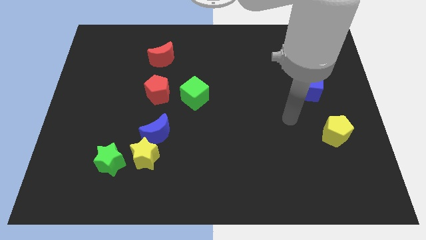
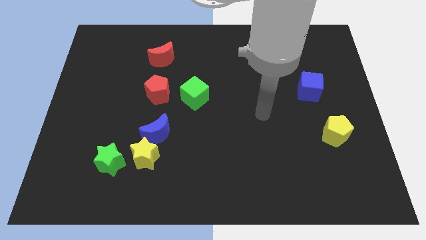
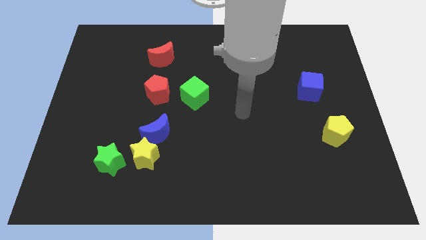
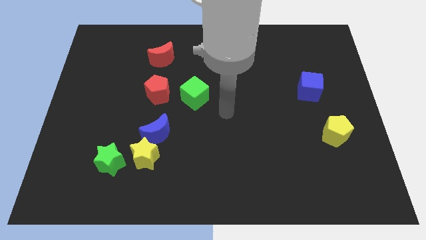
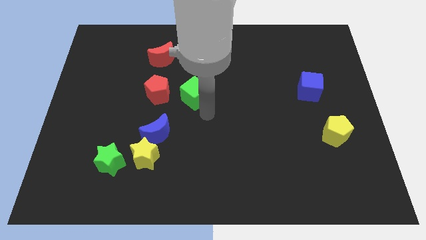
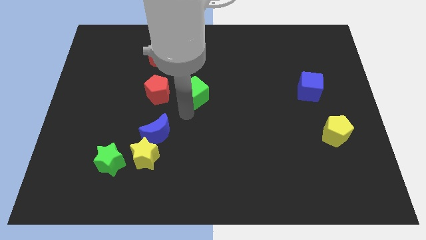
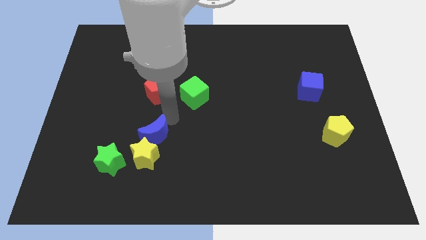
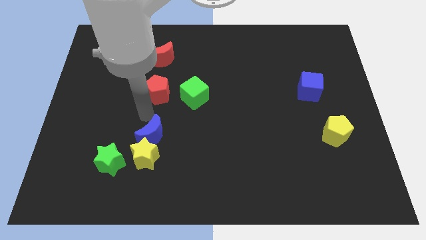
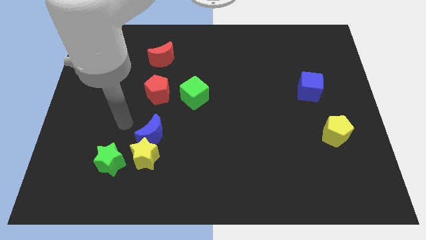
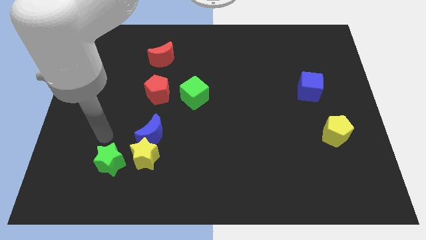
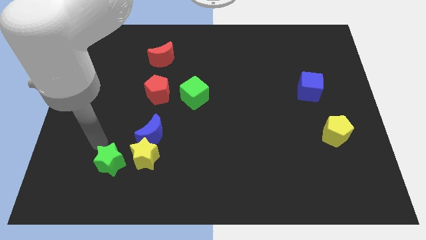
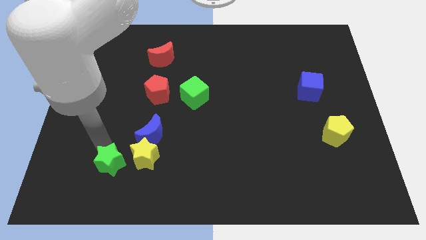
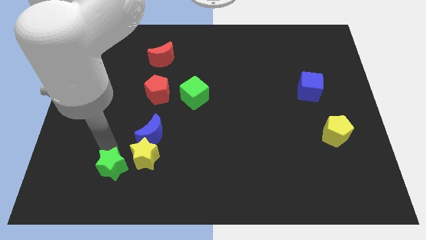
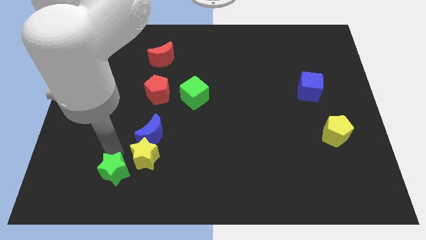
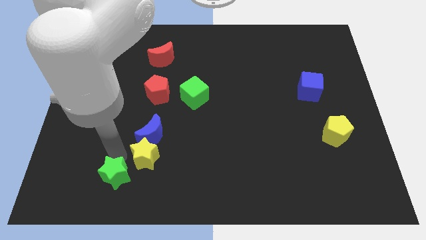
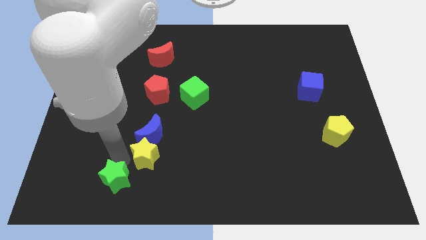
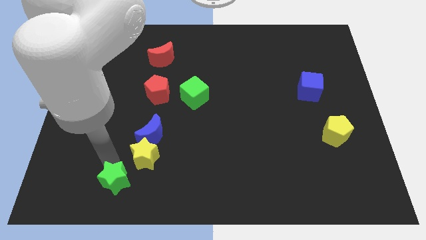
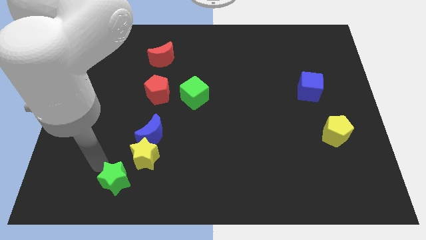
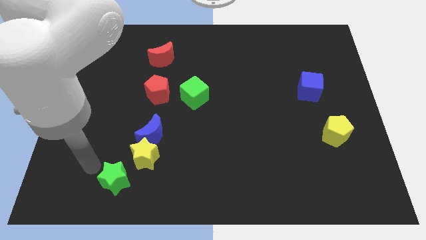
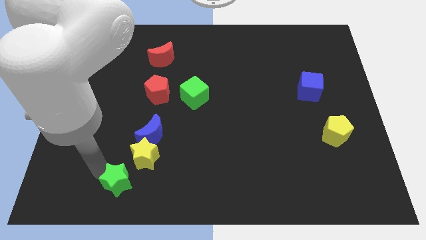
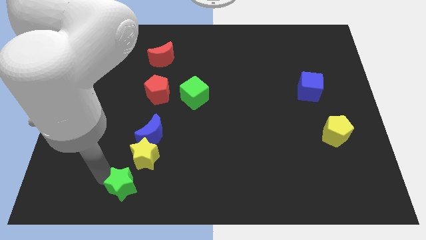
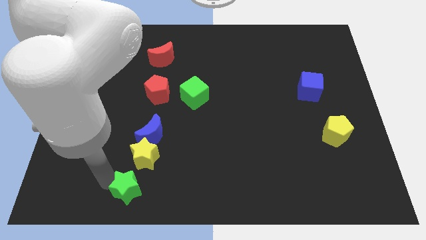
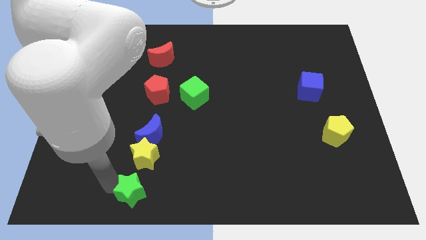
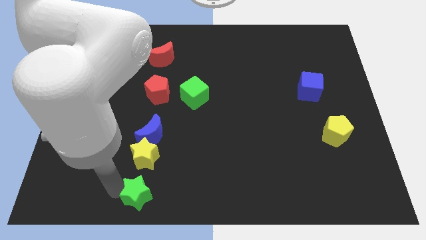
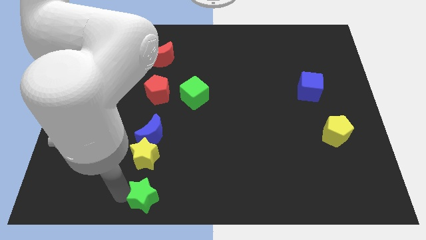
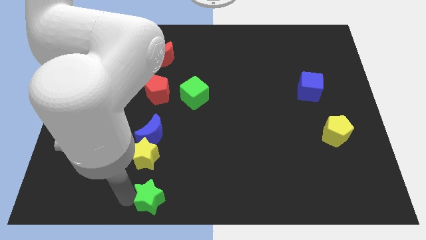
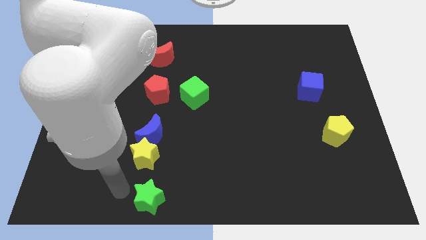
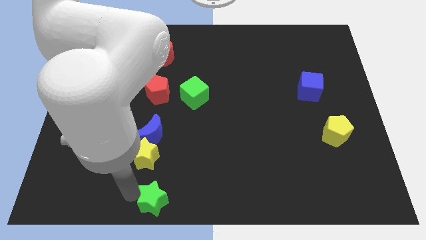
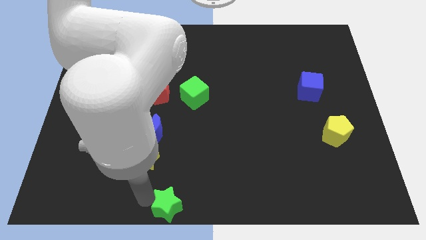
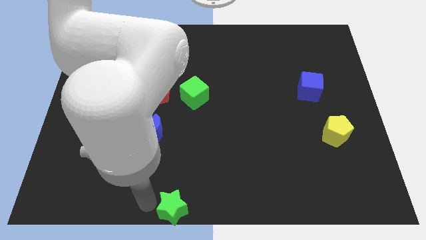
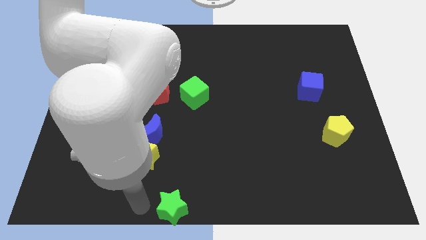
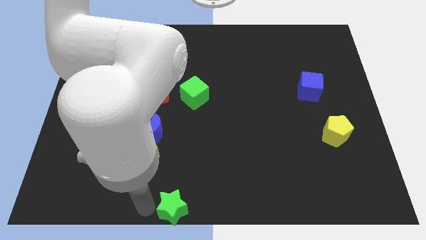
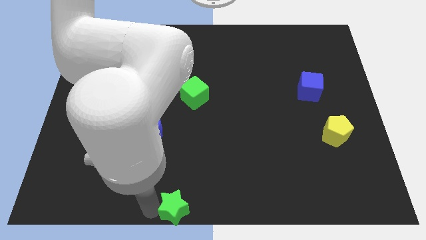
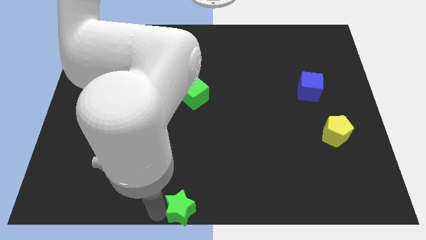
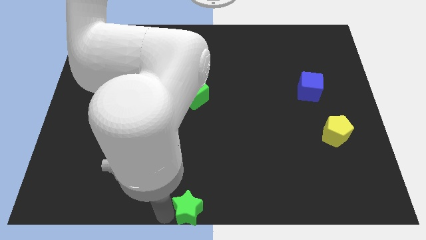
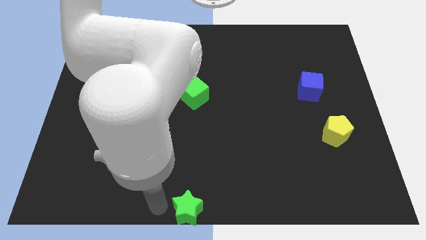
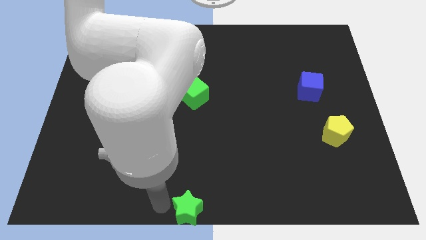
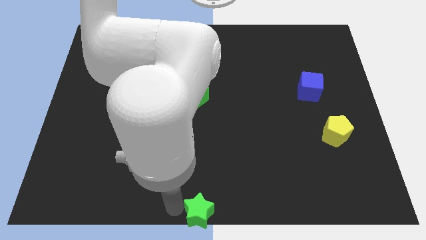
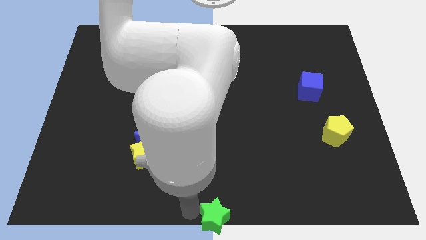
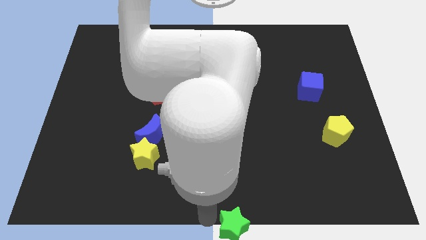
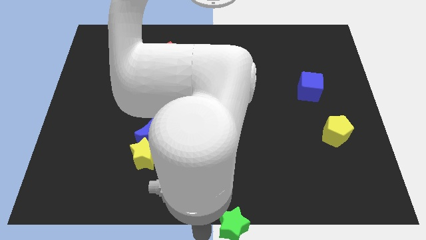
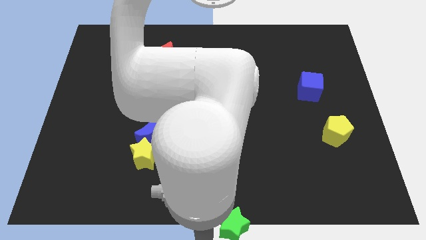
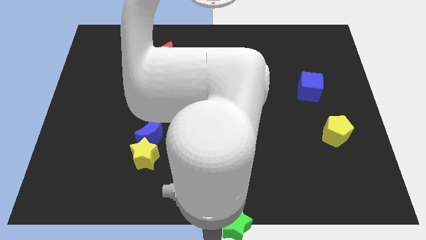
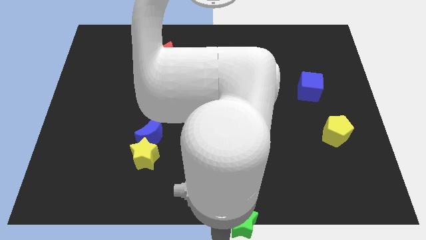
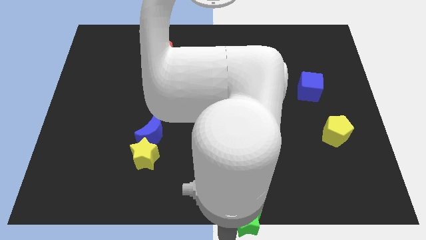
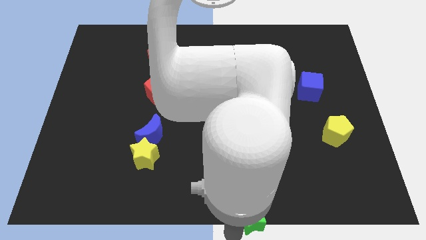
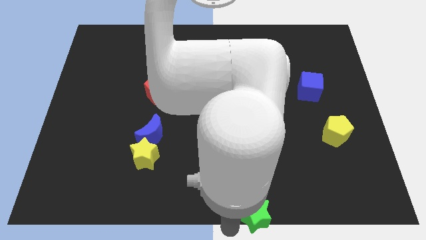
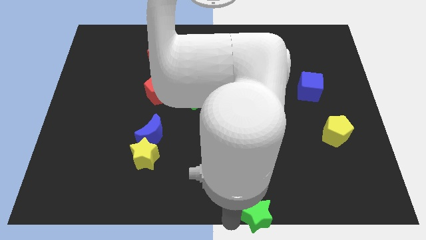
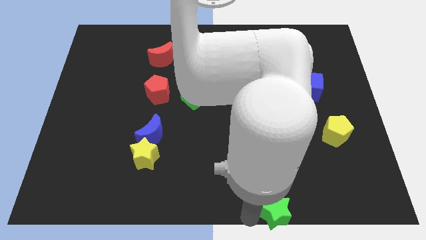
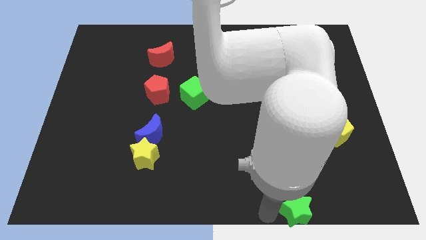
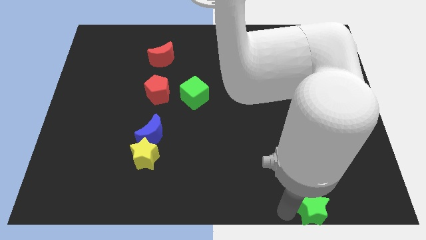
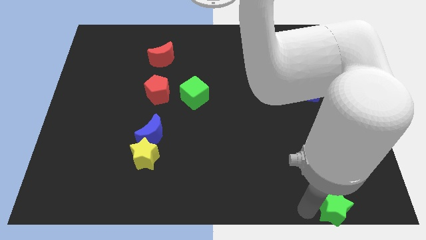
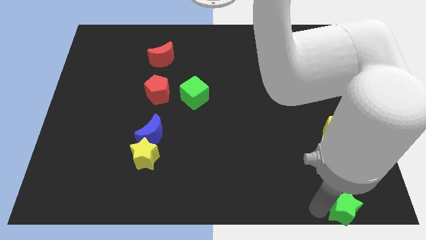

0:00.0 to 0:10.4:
put the green star to the lower right corner
